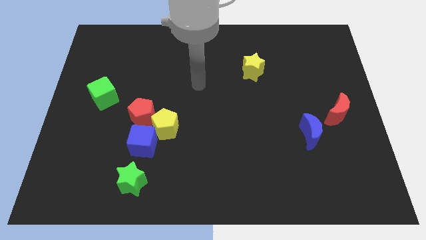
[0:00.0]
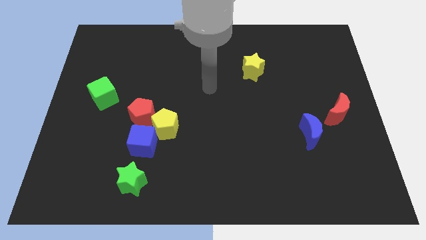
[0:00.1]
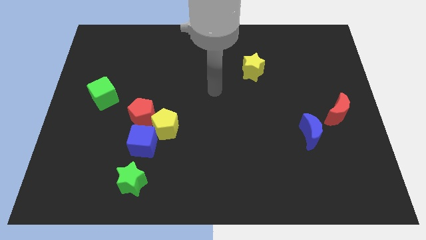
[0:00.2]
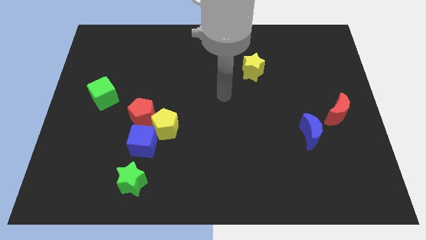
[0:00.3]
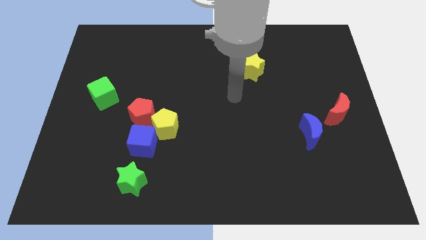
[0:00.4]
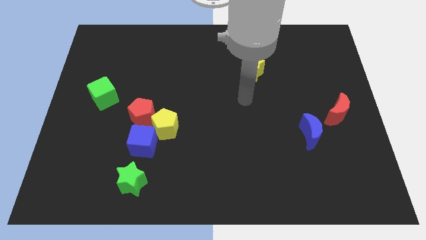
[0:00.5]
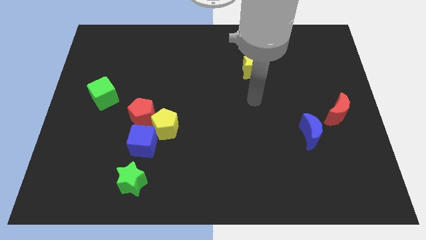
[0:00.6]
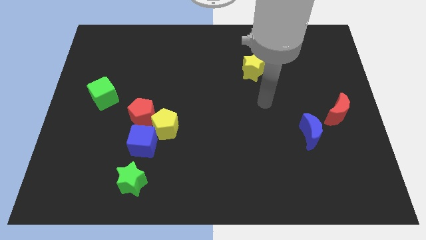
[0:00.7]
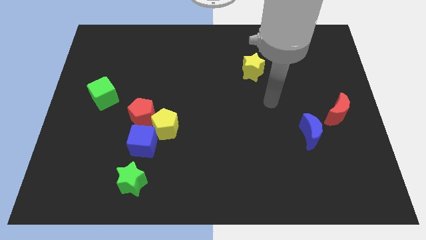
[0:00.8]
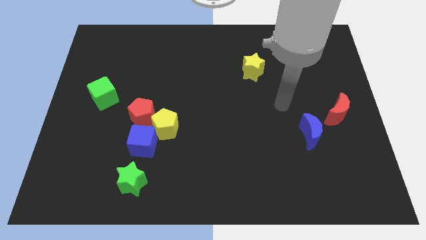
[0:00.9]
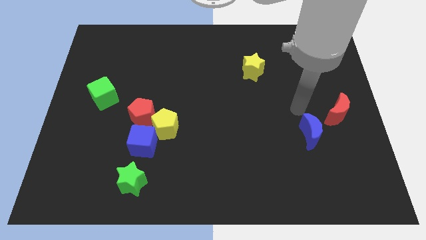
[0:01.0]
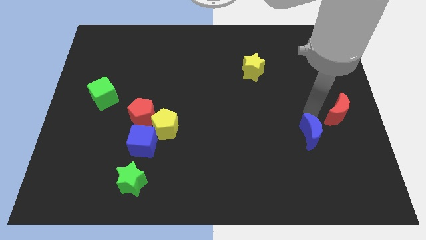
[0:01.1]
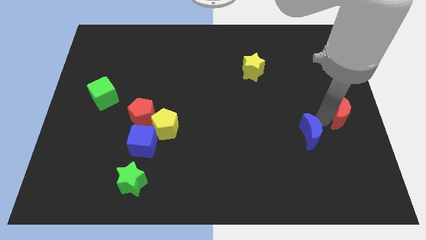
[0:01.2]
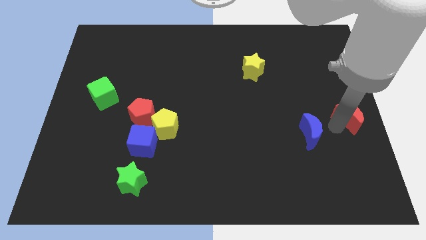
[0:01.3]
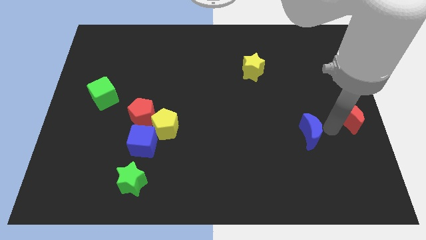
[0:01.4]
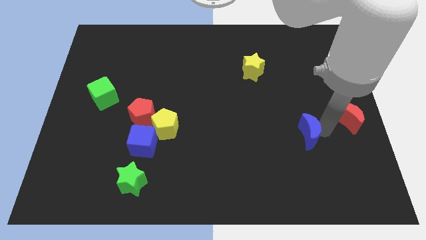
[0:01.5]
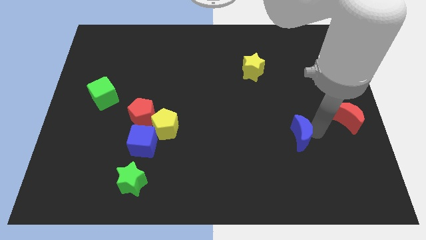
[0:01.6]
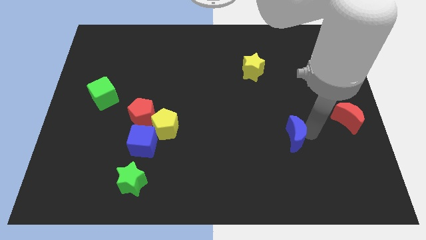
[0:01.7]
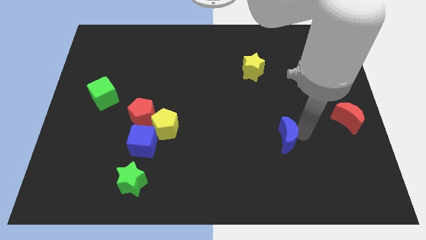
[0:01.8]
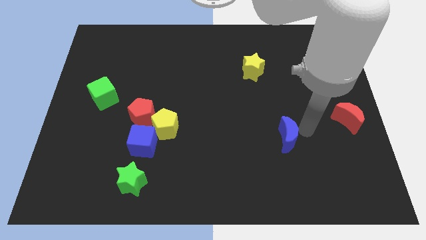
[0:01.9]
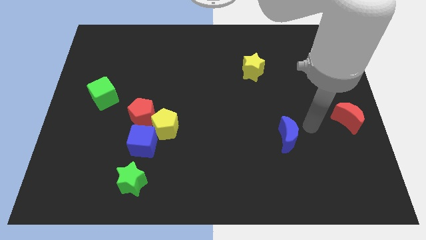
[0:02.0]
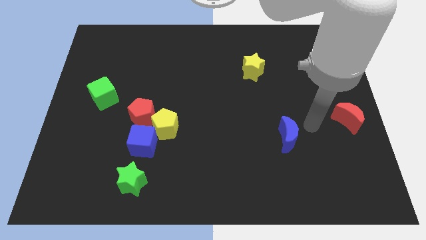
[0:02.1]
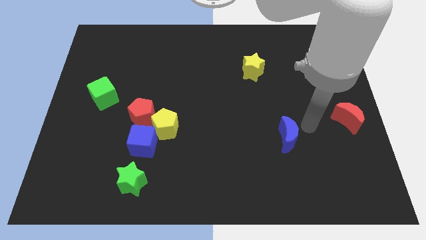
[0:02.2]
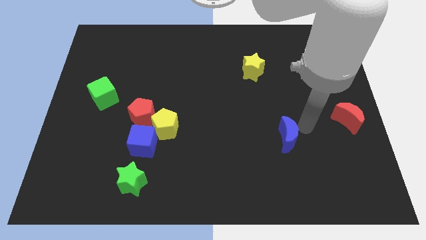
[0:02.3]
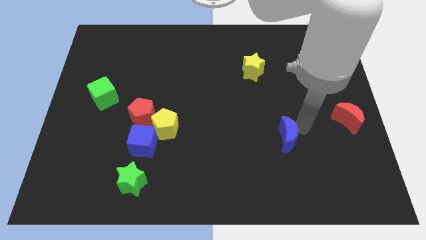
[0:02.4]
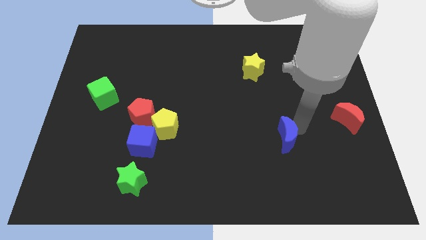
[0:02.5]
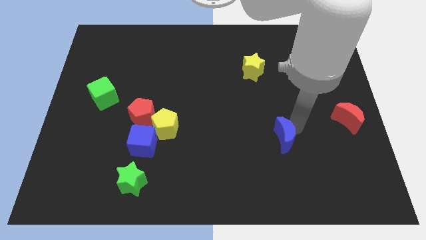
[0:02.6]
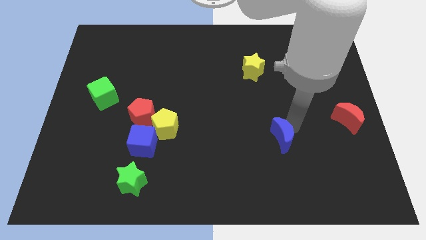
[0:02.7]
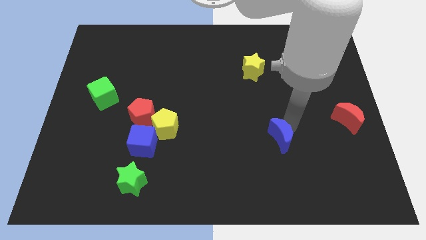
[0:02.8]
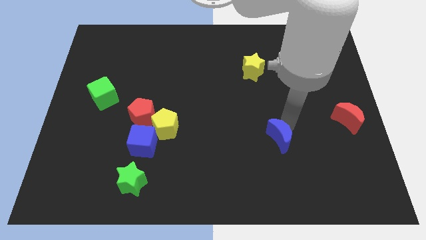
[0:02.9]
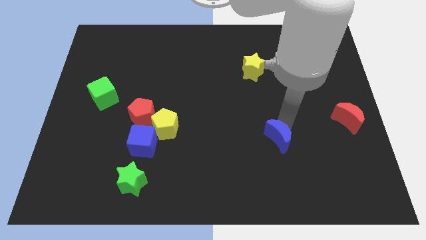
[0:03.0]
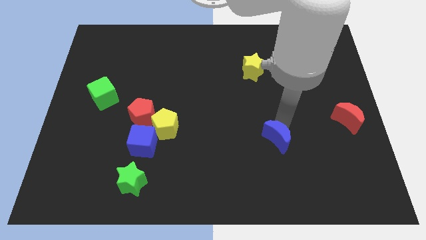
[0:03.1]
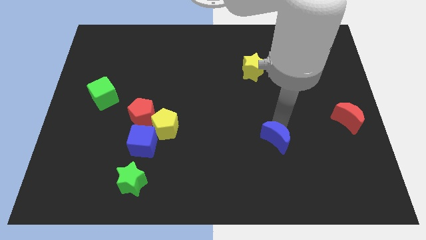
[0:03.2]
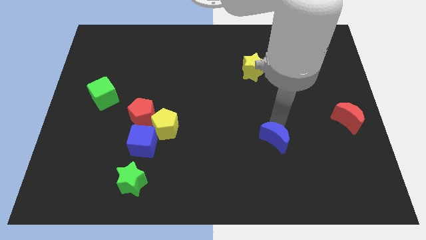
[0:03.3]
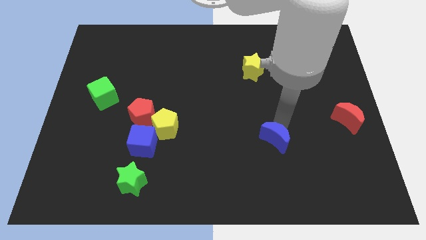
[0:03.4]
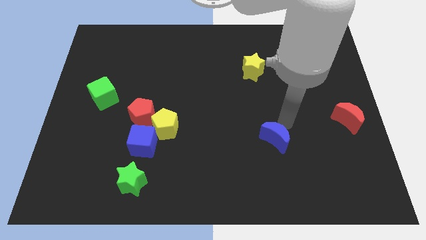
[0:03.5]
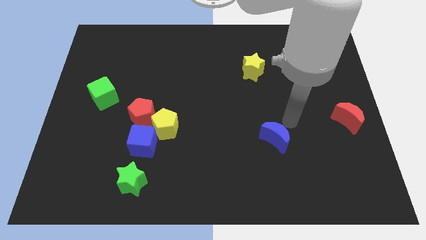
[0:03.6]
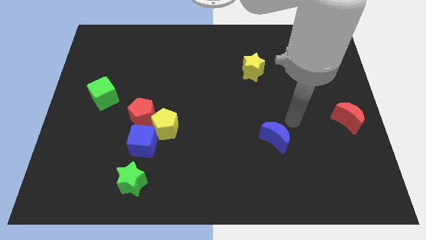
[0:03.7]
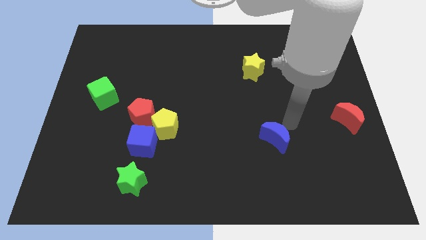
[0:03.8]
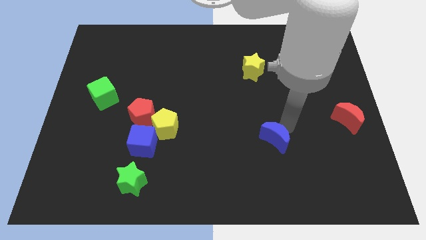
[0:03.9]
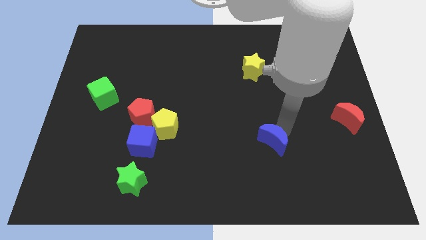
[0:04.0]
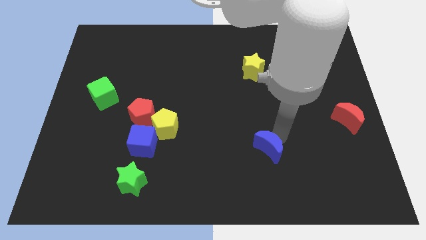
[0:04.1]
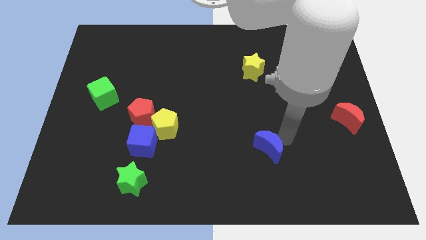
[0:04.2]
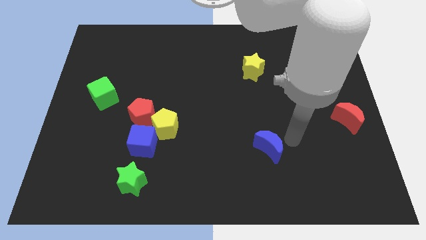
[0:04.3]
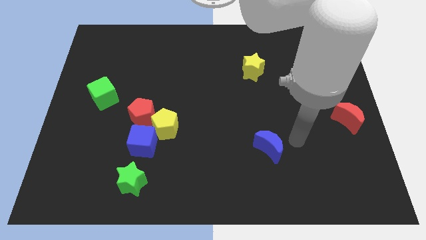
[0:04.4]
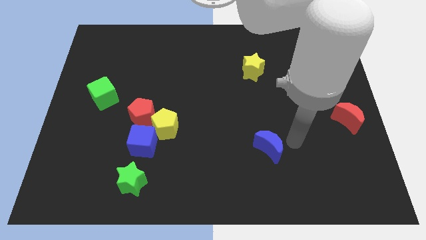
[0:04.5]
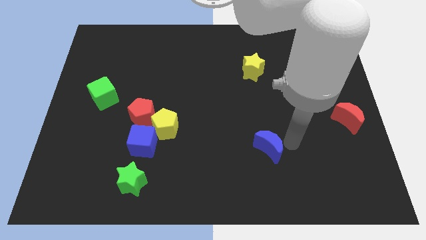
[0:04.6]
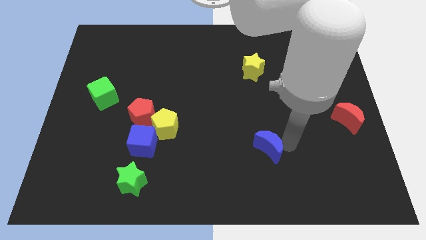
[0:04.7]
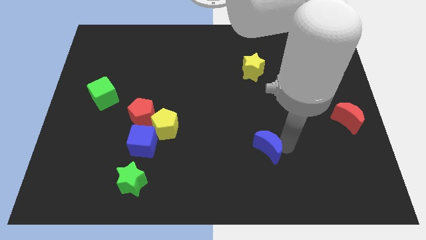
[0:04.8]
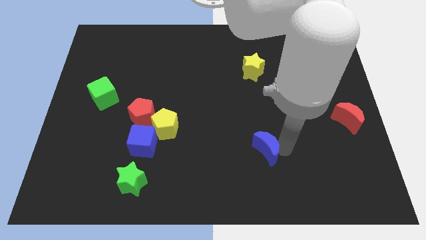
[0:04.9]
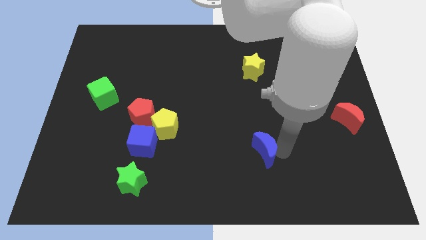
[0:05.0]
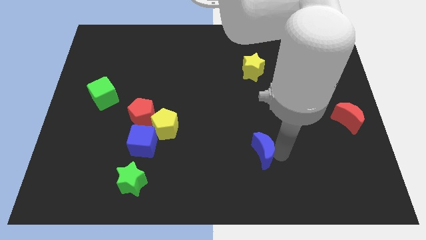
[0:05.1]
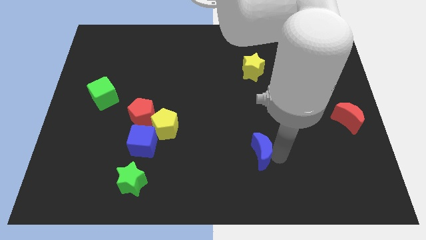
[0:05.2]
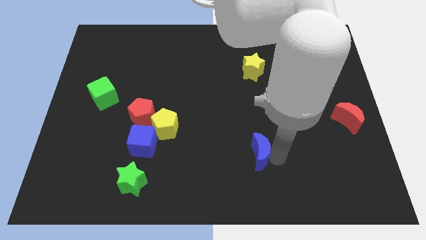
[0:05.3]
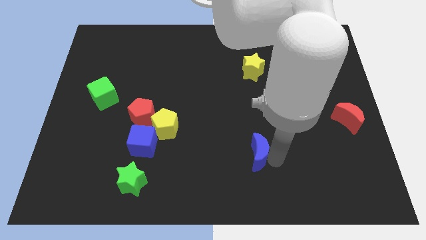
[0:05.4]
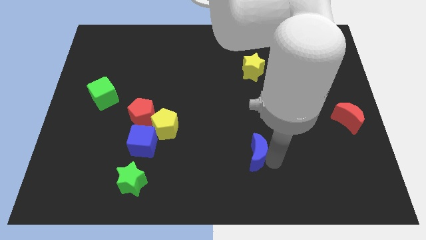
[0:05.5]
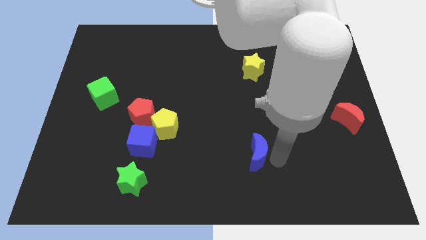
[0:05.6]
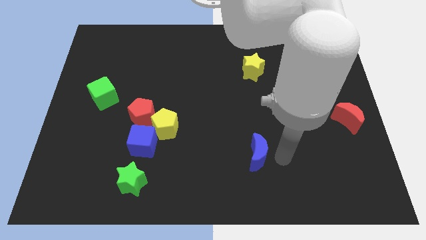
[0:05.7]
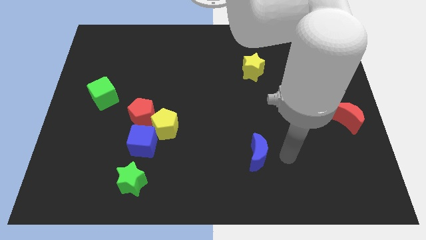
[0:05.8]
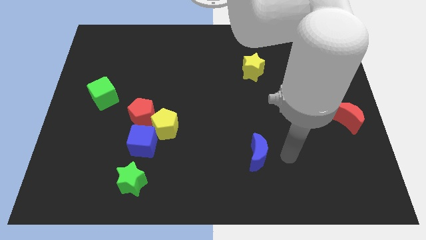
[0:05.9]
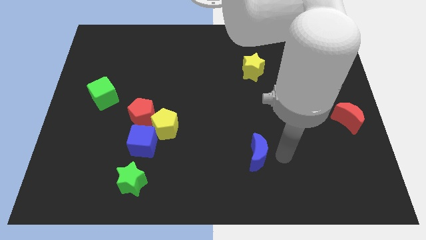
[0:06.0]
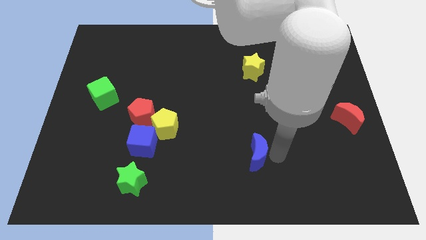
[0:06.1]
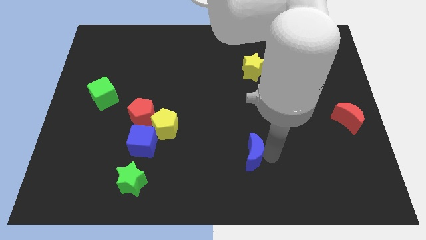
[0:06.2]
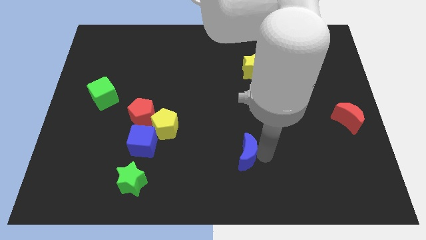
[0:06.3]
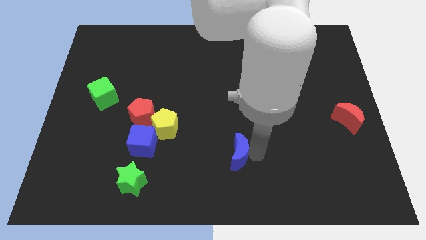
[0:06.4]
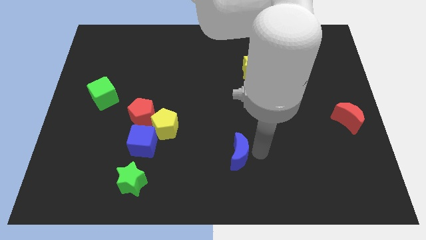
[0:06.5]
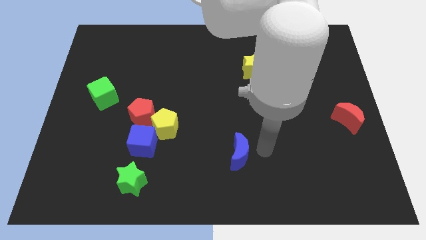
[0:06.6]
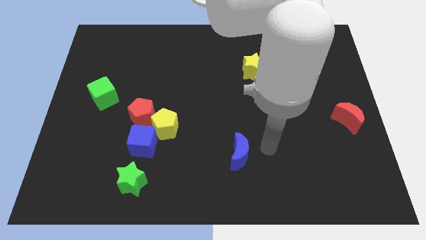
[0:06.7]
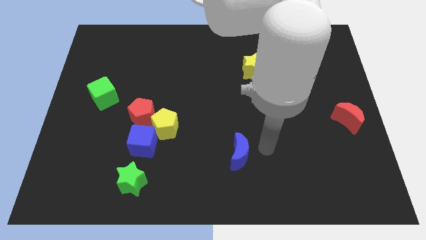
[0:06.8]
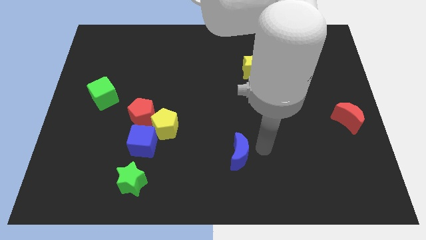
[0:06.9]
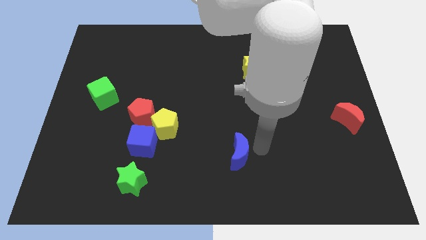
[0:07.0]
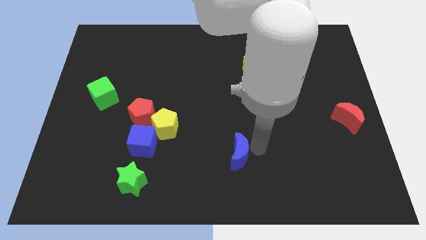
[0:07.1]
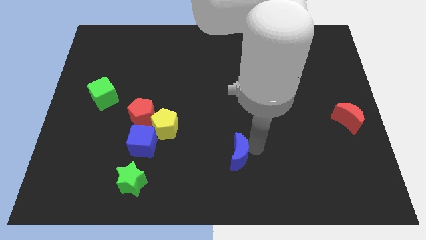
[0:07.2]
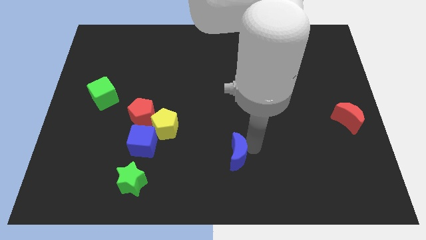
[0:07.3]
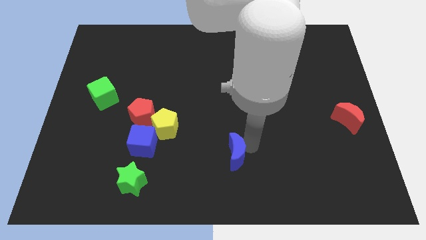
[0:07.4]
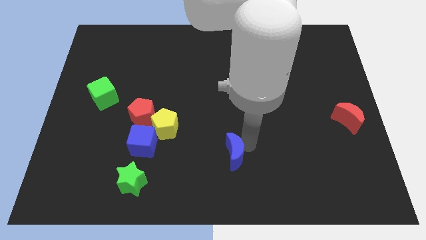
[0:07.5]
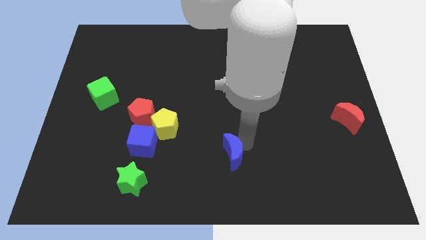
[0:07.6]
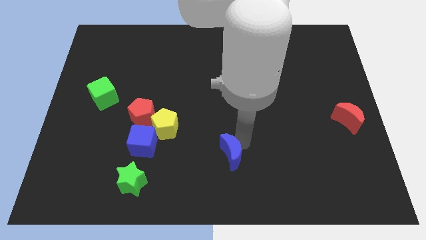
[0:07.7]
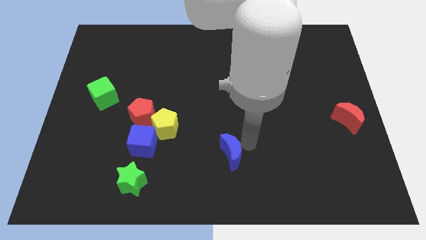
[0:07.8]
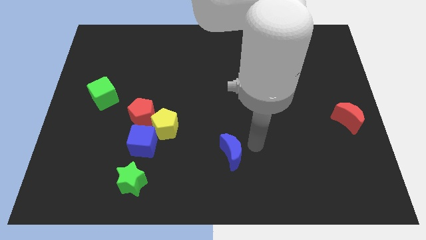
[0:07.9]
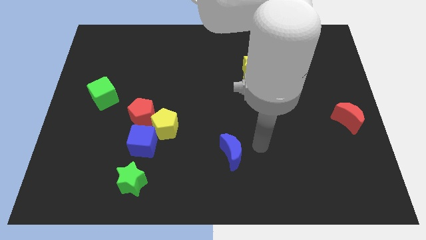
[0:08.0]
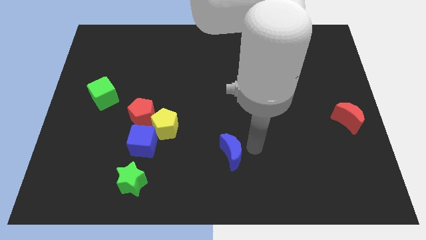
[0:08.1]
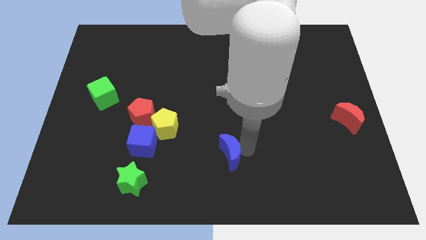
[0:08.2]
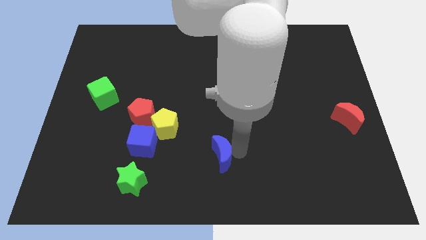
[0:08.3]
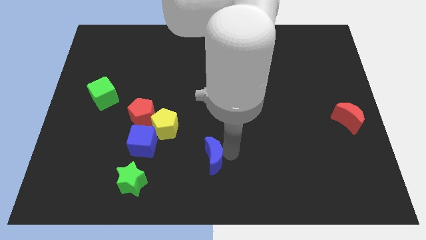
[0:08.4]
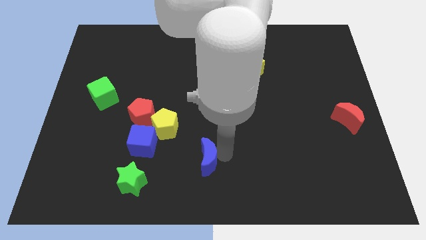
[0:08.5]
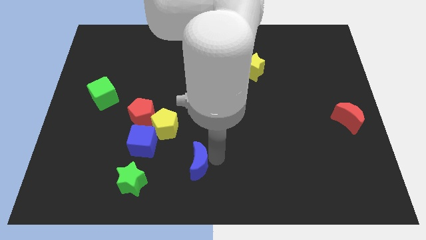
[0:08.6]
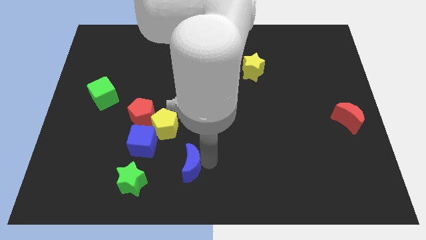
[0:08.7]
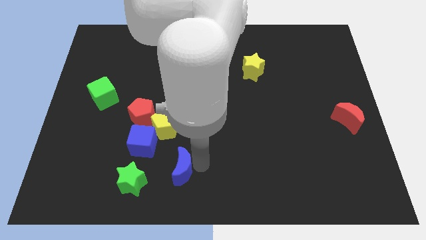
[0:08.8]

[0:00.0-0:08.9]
move the blue moon diagonally down and to the right of the blue cube
